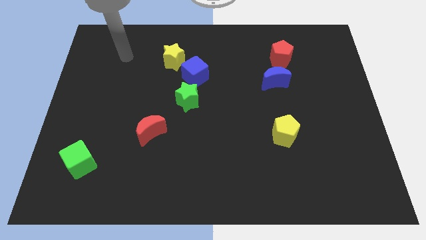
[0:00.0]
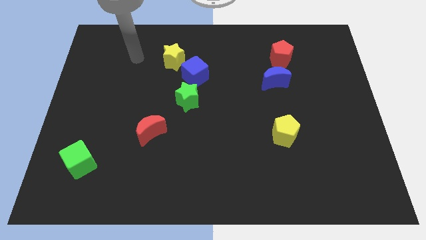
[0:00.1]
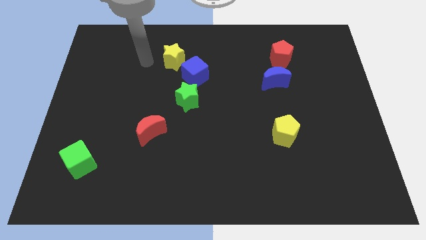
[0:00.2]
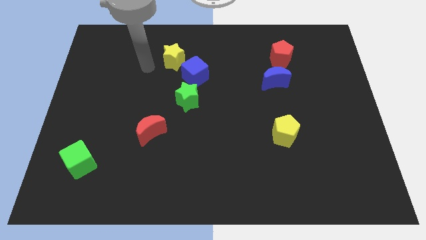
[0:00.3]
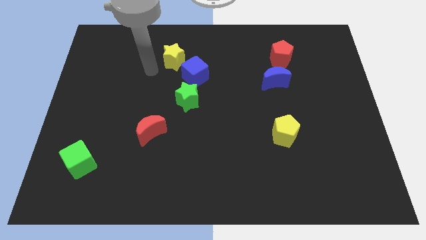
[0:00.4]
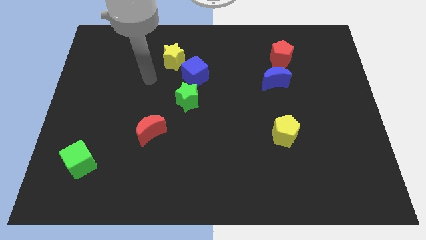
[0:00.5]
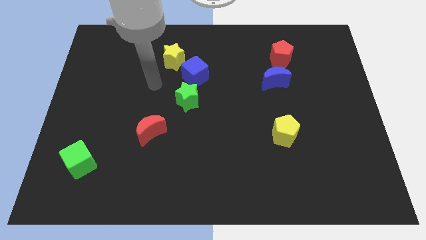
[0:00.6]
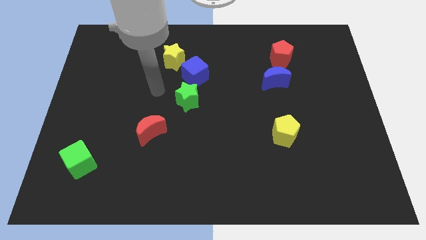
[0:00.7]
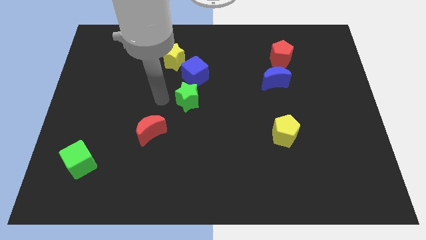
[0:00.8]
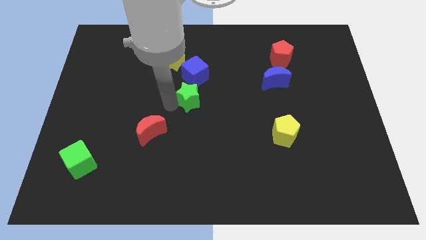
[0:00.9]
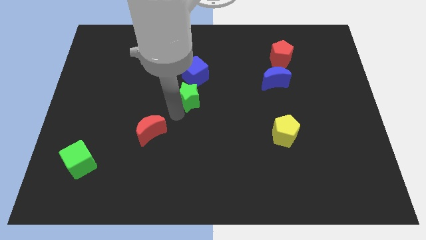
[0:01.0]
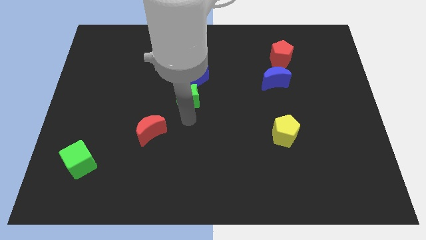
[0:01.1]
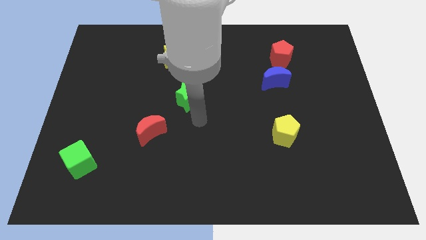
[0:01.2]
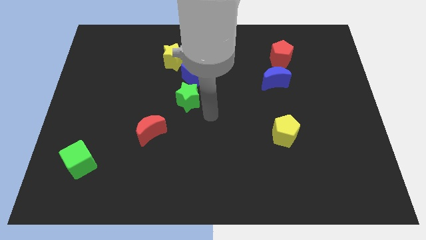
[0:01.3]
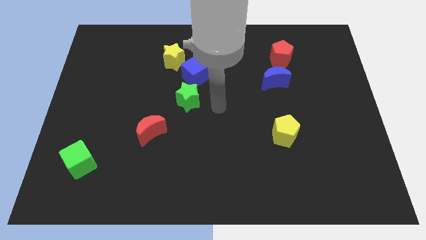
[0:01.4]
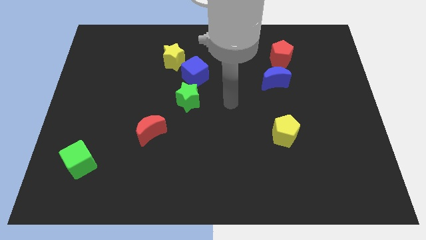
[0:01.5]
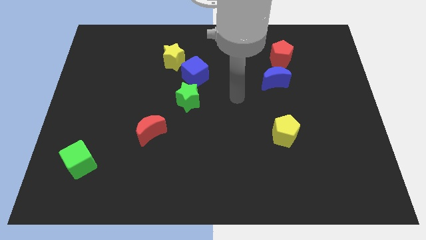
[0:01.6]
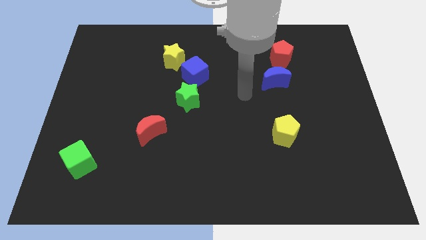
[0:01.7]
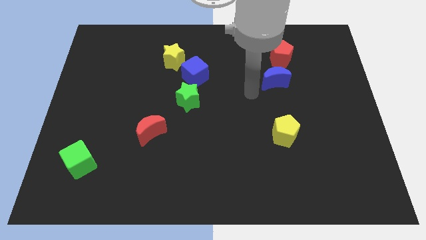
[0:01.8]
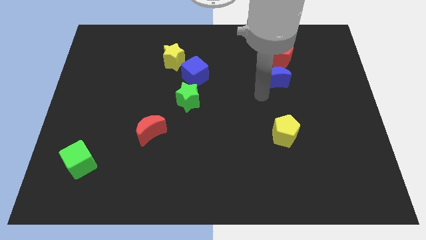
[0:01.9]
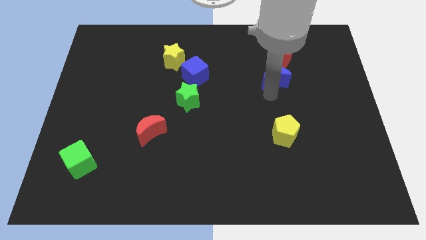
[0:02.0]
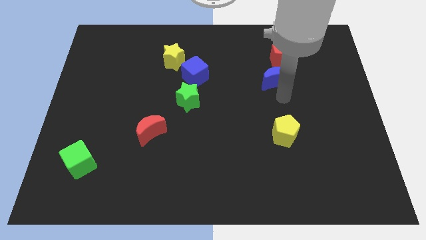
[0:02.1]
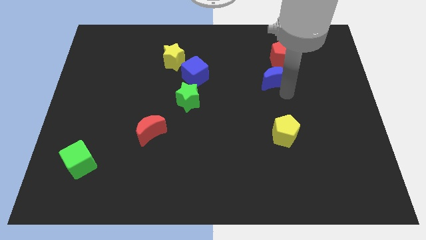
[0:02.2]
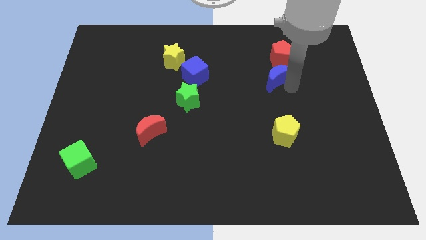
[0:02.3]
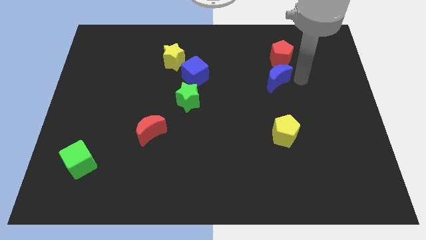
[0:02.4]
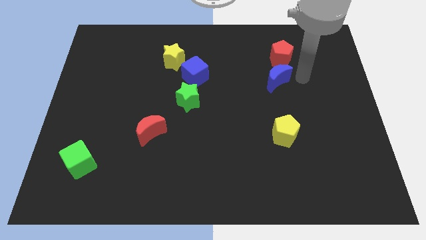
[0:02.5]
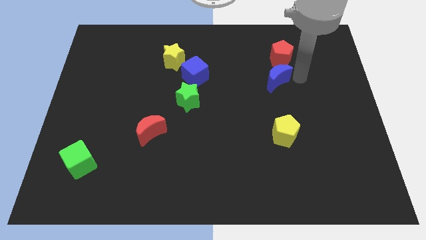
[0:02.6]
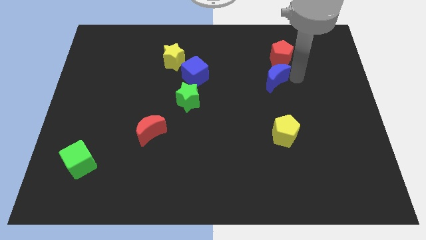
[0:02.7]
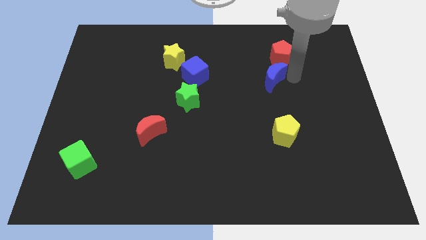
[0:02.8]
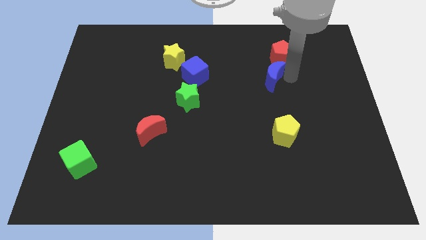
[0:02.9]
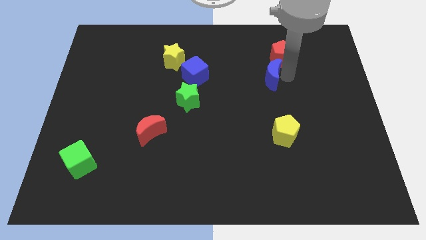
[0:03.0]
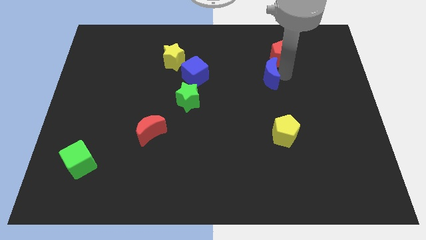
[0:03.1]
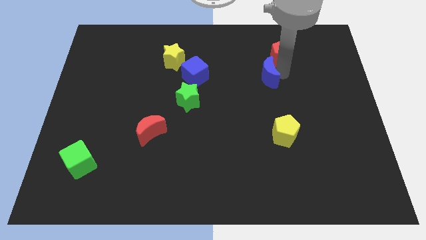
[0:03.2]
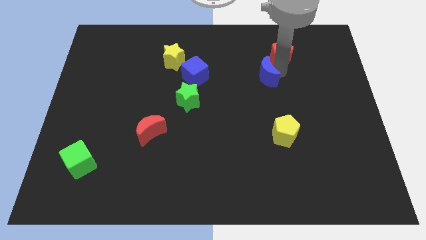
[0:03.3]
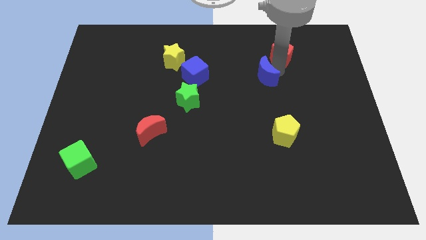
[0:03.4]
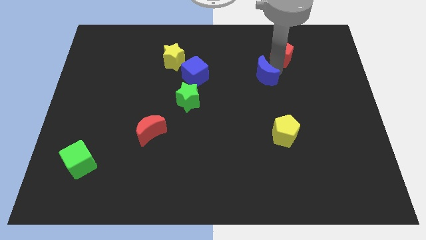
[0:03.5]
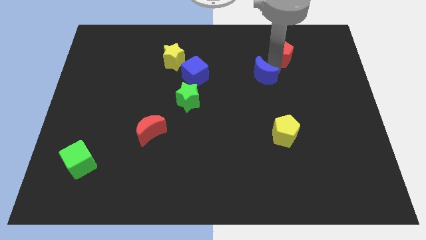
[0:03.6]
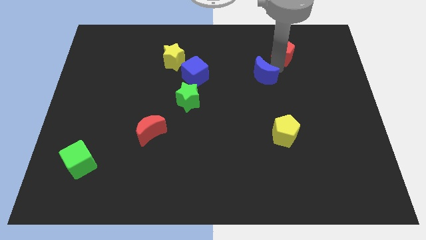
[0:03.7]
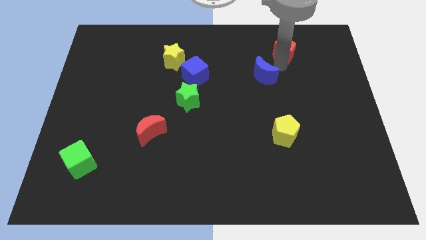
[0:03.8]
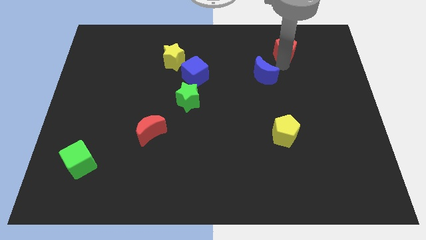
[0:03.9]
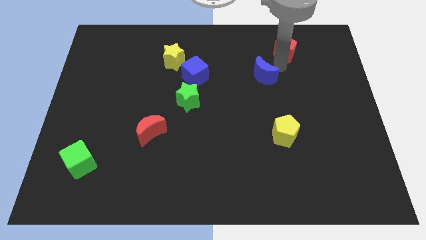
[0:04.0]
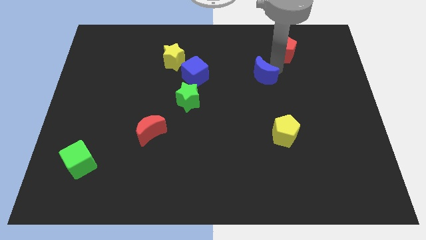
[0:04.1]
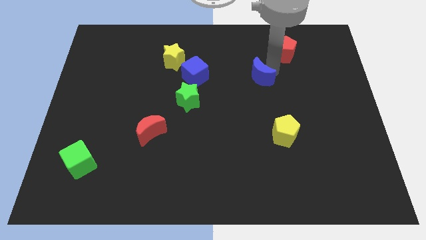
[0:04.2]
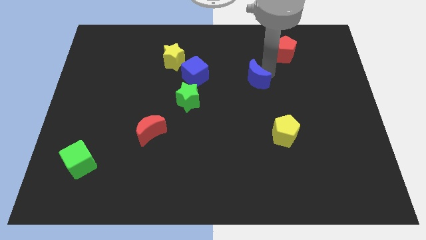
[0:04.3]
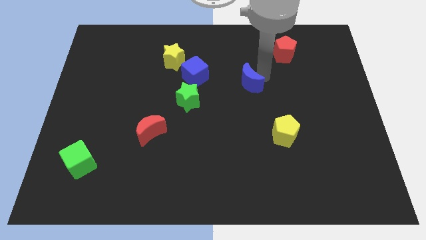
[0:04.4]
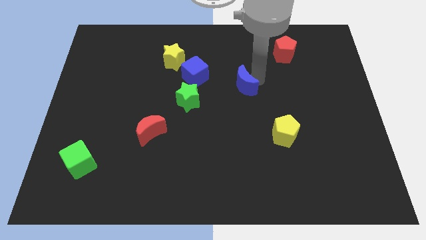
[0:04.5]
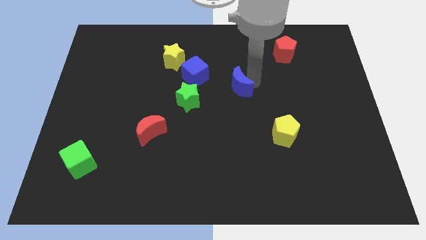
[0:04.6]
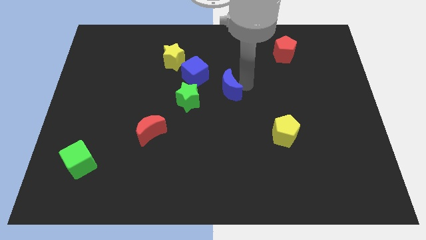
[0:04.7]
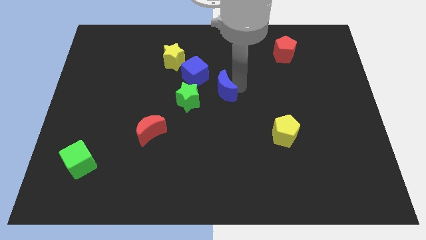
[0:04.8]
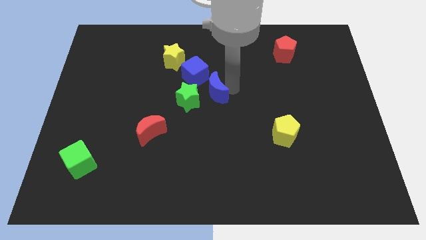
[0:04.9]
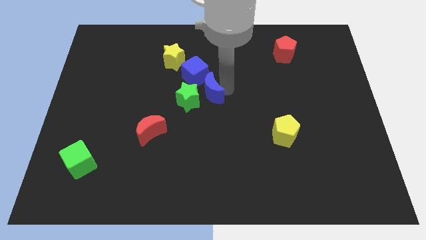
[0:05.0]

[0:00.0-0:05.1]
push the blue moon next to the green star

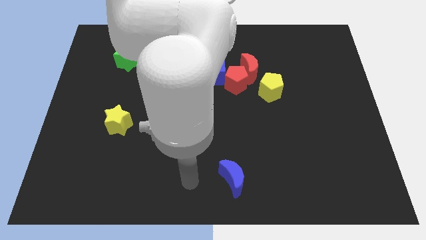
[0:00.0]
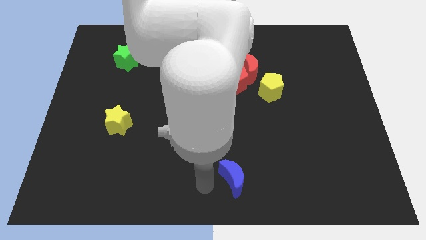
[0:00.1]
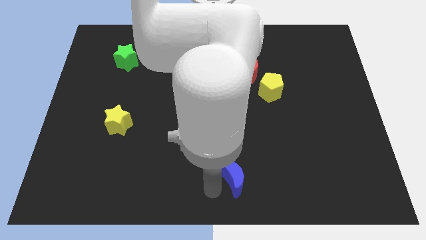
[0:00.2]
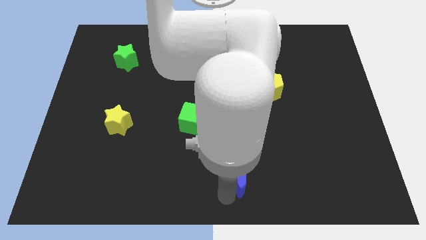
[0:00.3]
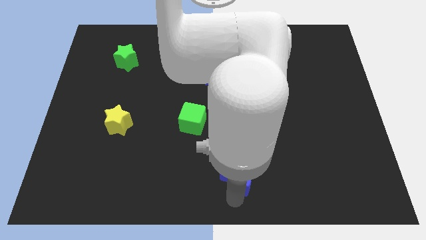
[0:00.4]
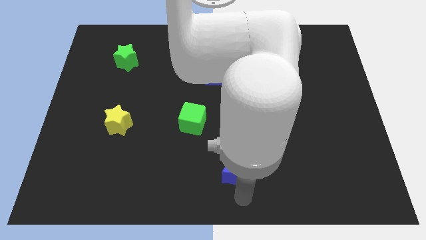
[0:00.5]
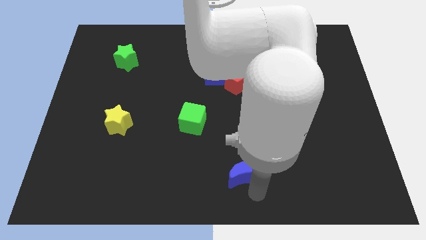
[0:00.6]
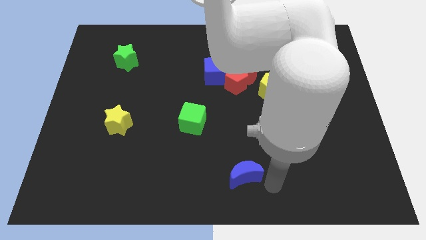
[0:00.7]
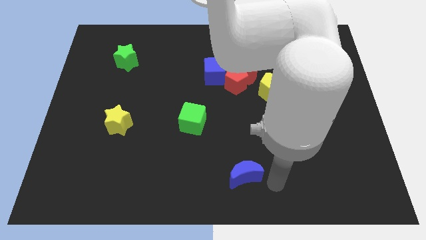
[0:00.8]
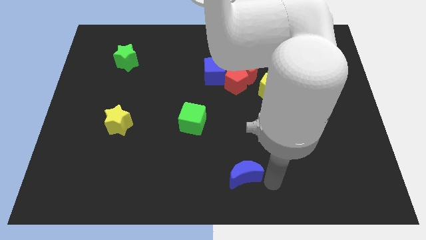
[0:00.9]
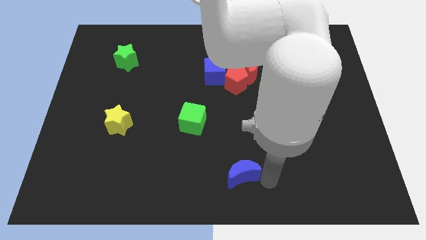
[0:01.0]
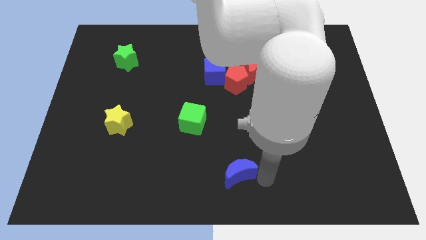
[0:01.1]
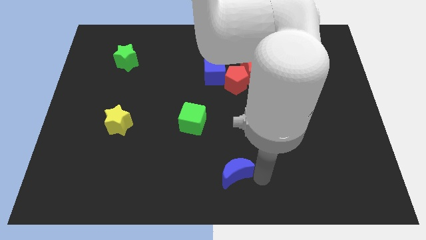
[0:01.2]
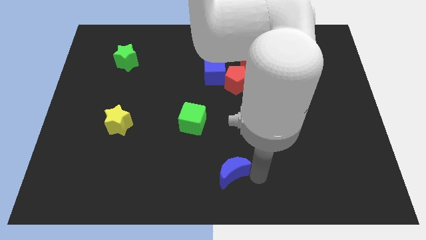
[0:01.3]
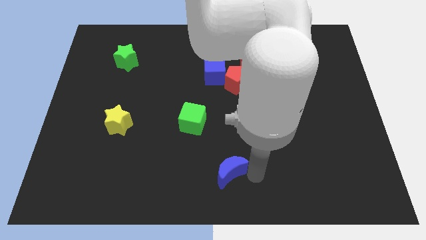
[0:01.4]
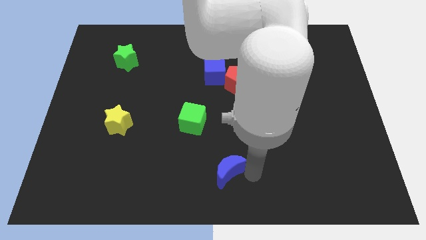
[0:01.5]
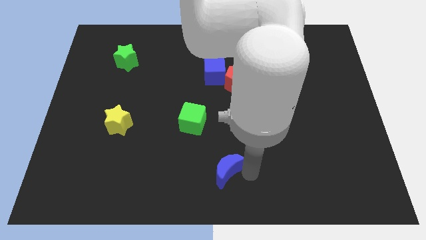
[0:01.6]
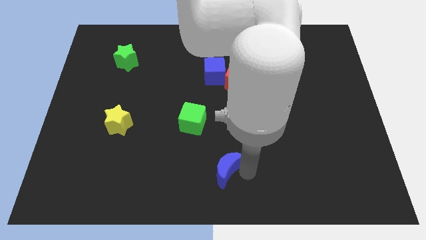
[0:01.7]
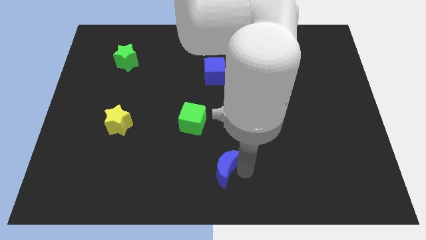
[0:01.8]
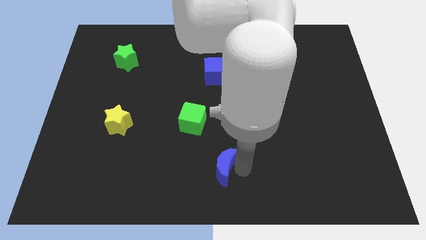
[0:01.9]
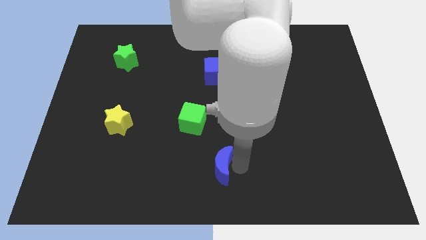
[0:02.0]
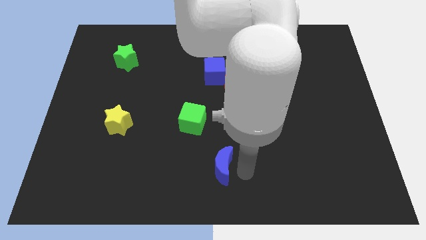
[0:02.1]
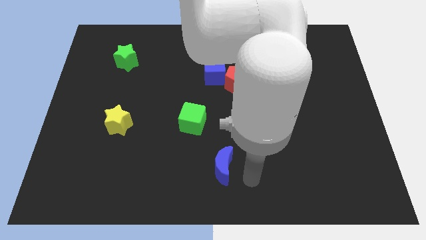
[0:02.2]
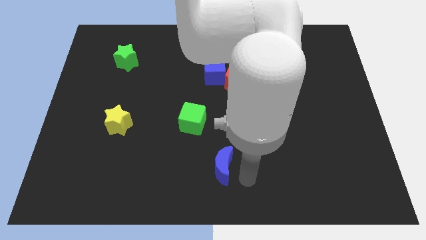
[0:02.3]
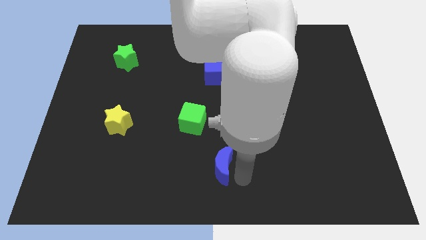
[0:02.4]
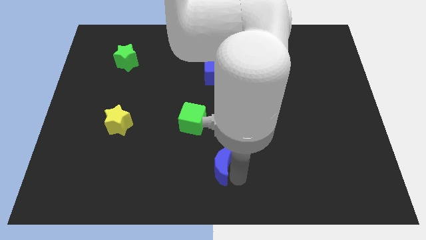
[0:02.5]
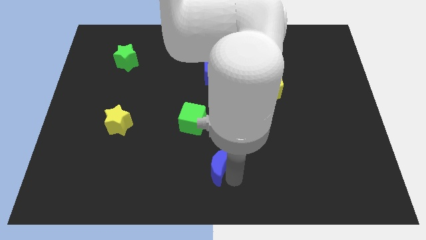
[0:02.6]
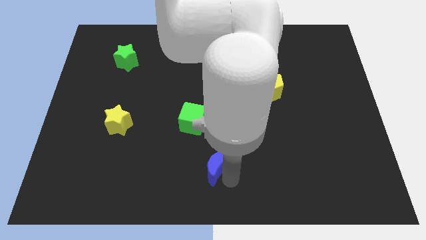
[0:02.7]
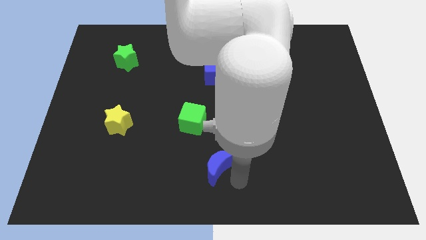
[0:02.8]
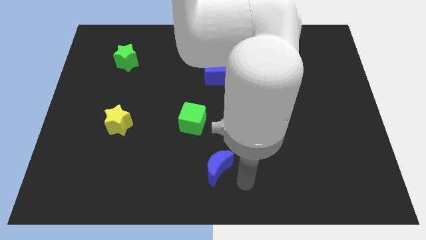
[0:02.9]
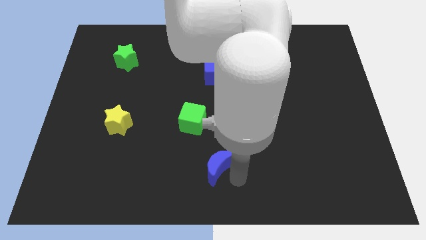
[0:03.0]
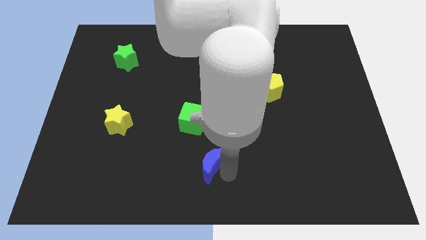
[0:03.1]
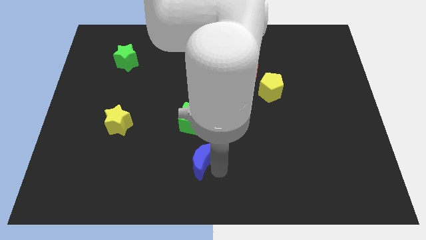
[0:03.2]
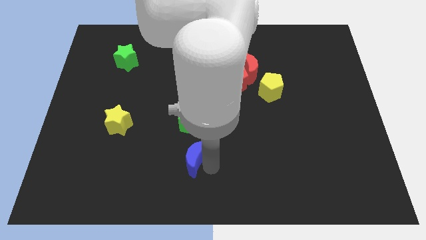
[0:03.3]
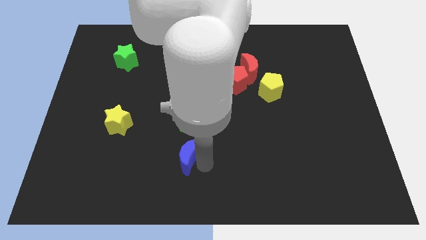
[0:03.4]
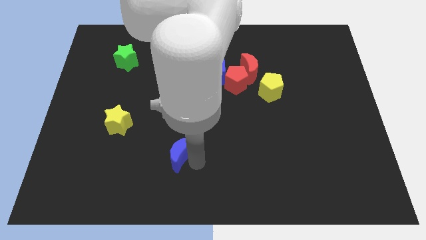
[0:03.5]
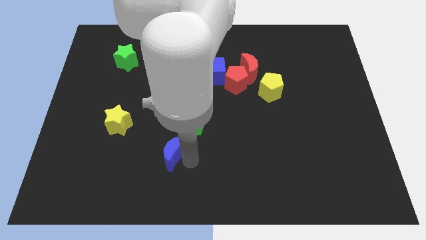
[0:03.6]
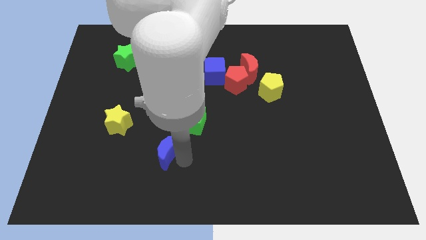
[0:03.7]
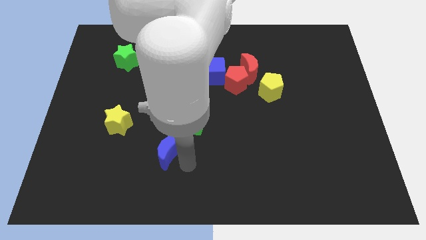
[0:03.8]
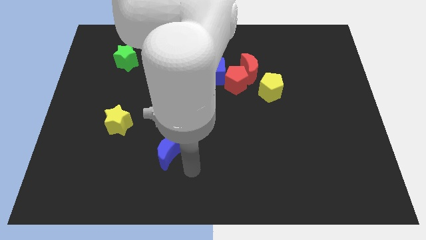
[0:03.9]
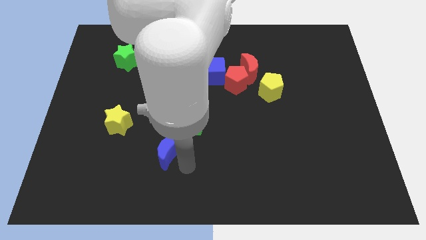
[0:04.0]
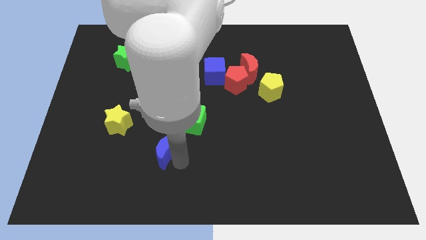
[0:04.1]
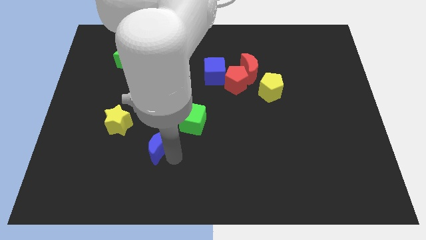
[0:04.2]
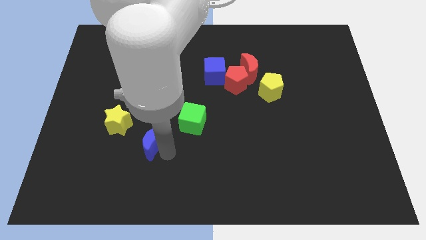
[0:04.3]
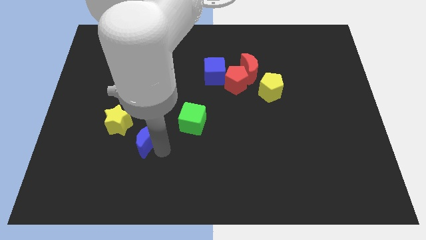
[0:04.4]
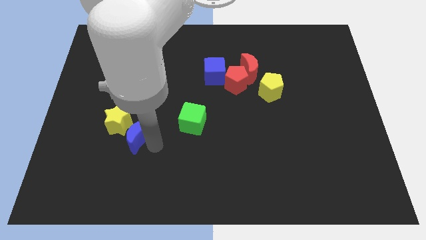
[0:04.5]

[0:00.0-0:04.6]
put the blue moon towards the yellow star
